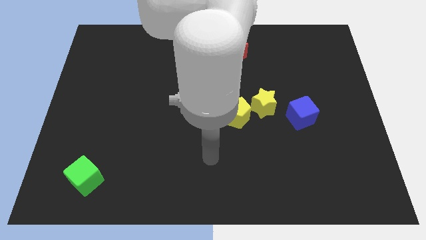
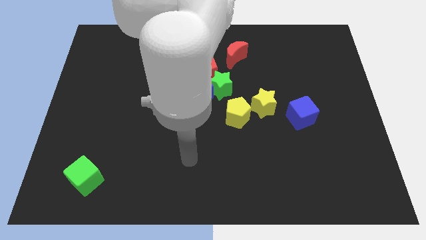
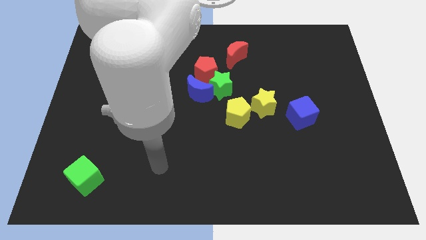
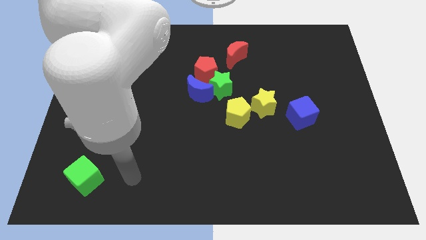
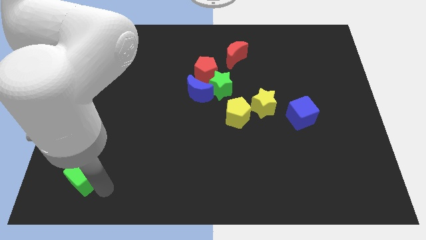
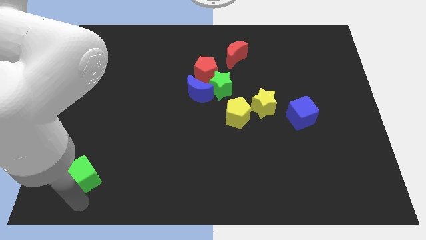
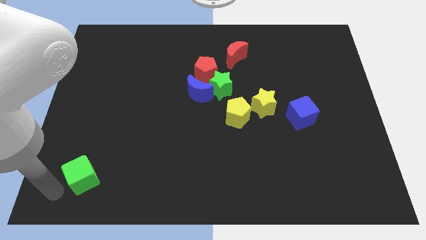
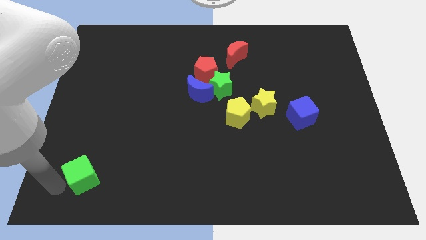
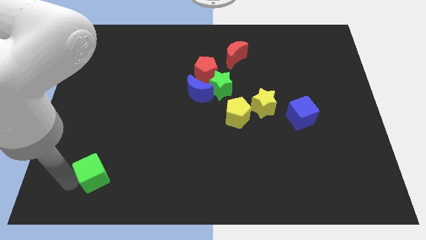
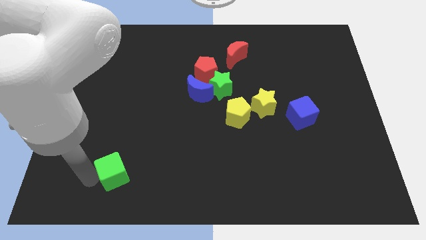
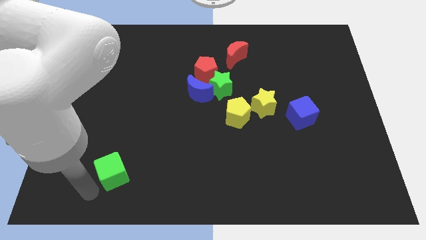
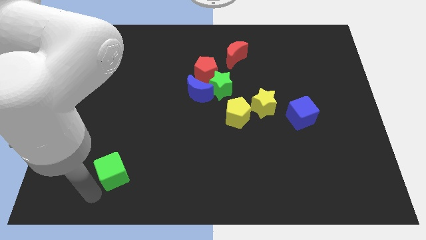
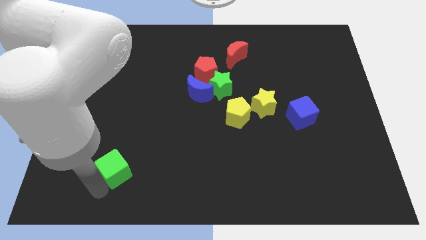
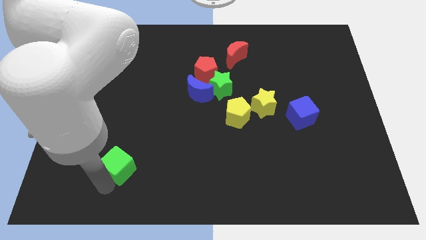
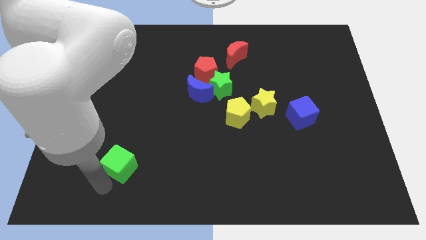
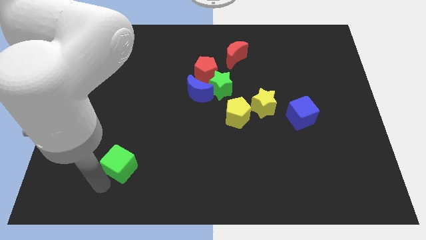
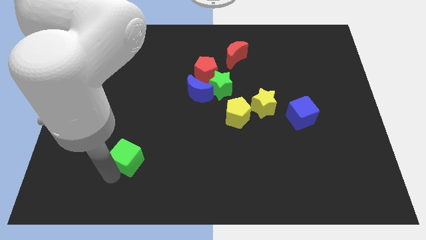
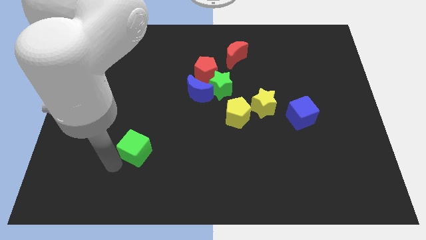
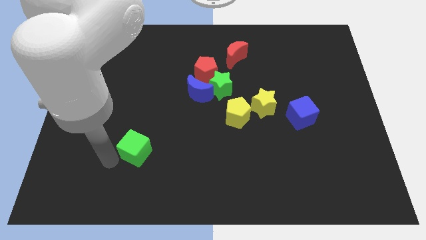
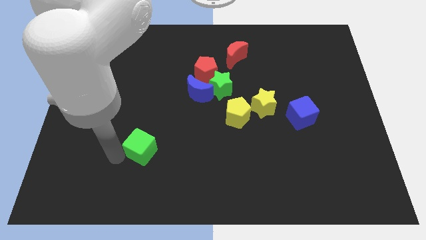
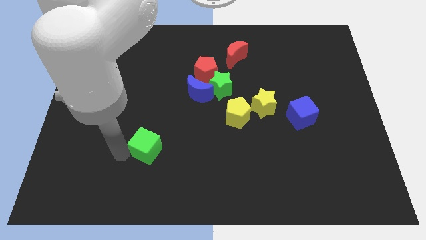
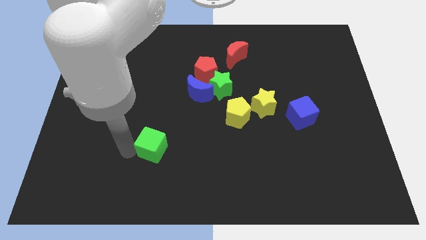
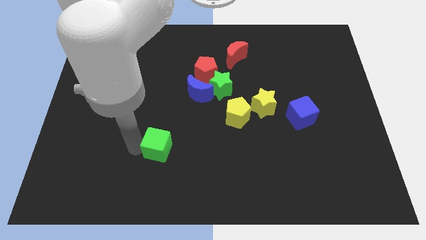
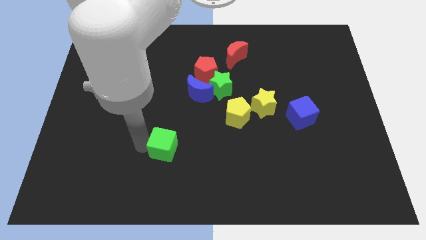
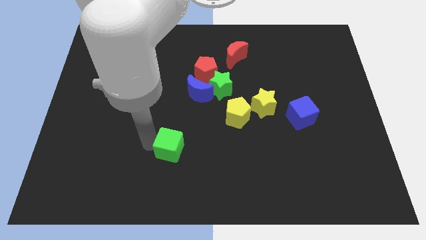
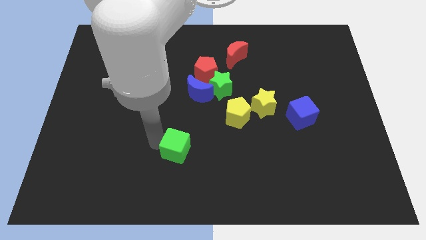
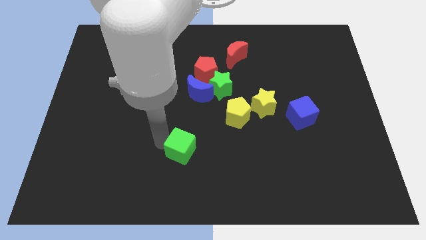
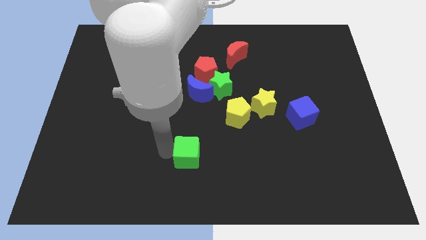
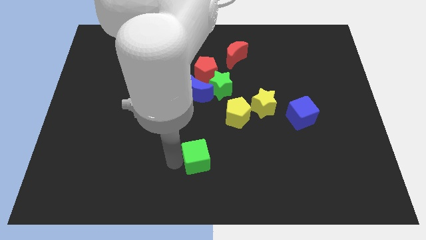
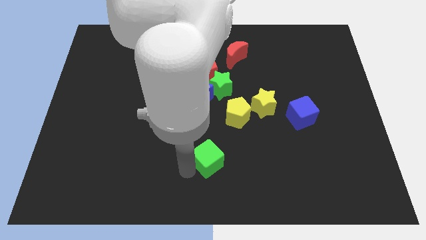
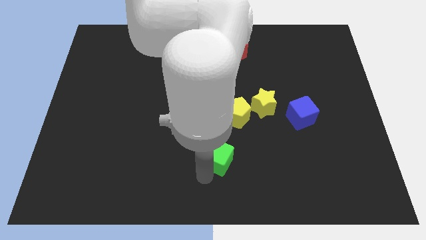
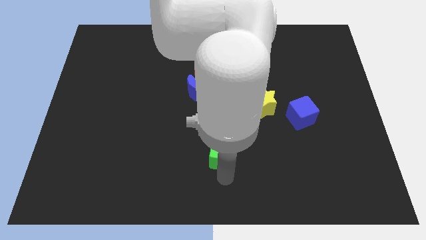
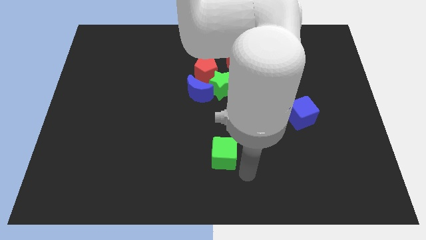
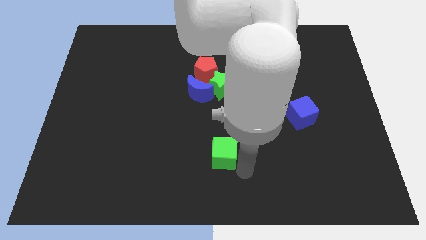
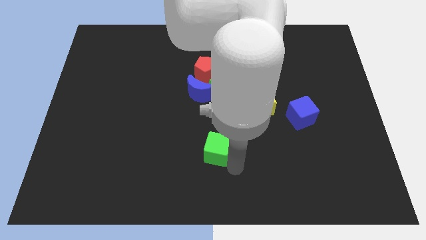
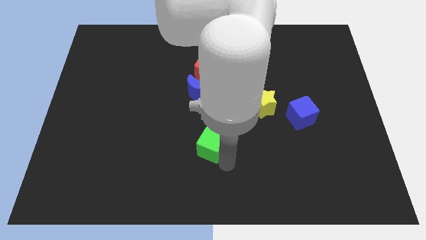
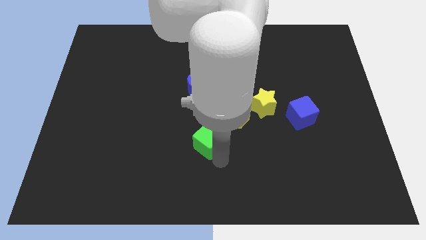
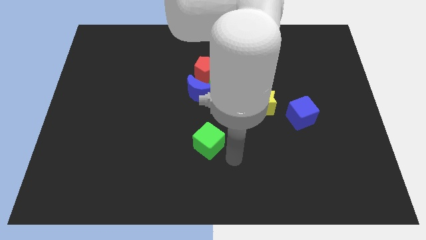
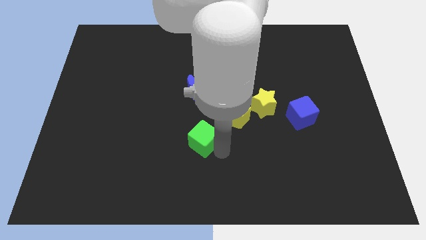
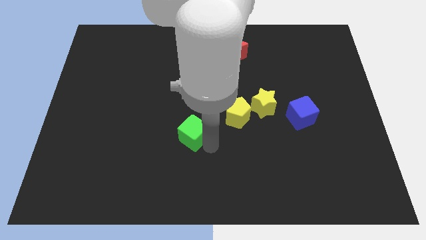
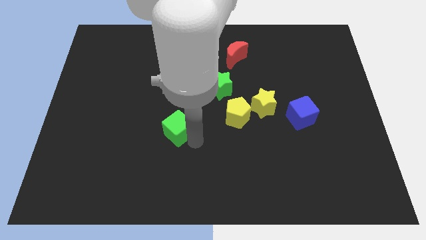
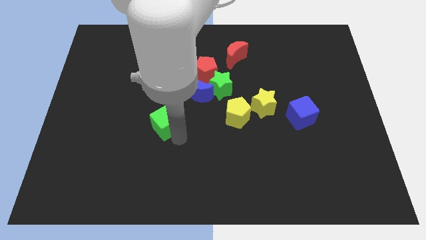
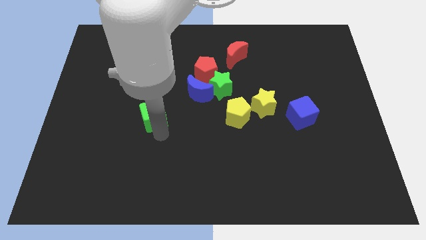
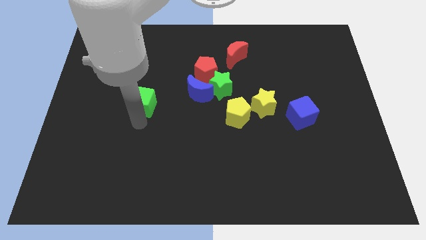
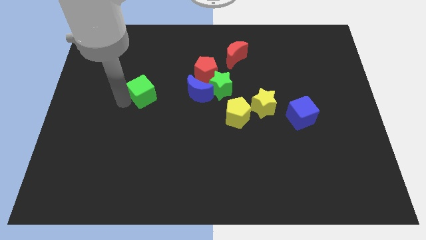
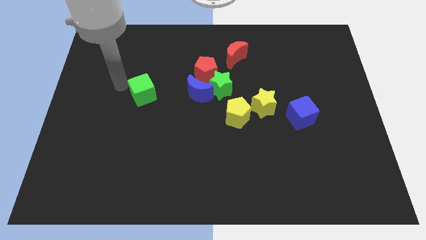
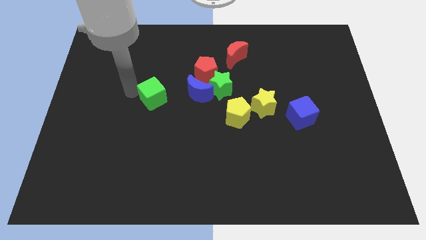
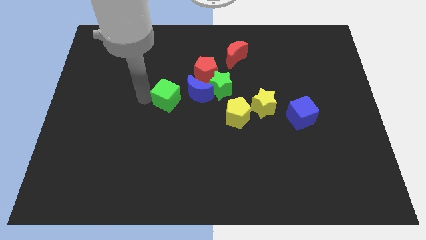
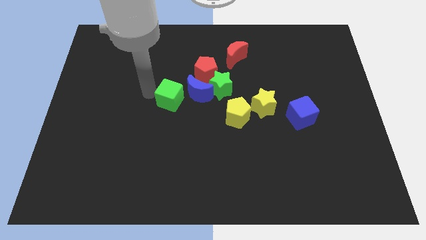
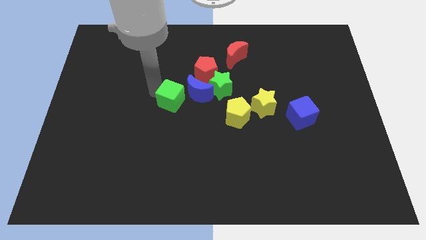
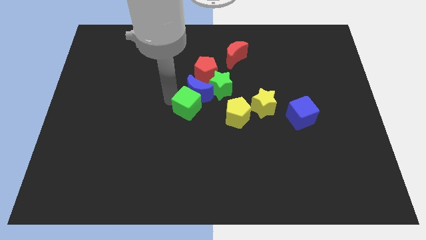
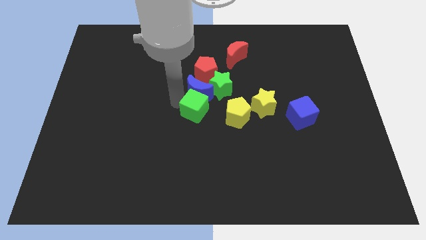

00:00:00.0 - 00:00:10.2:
move the green cube to the bottom right of the blue moon

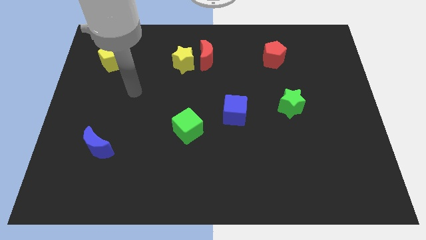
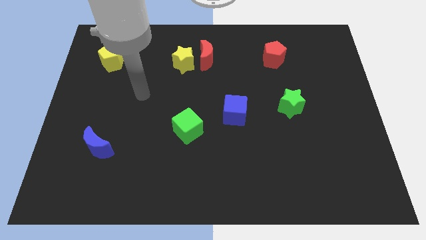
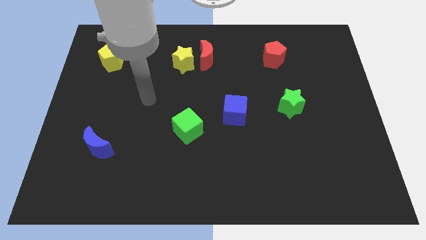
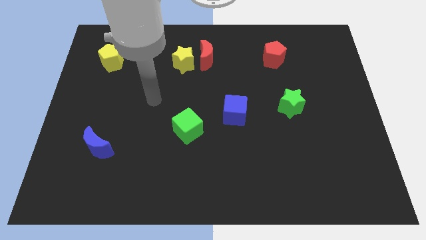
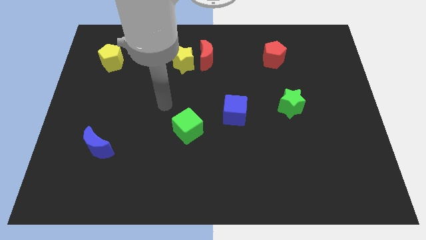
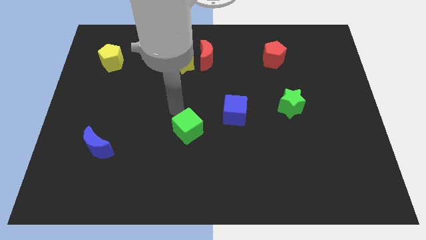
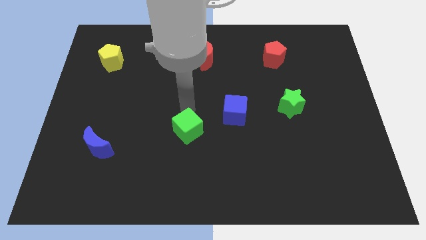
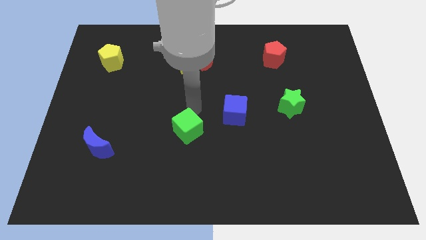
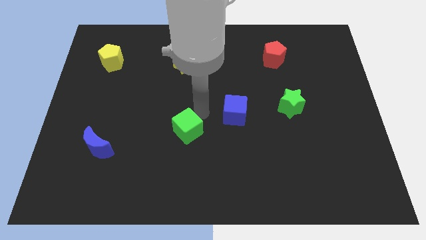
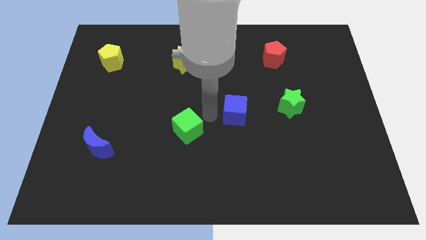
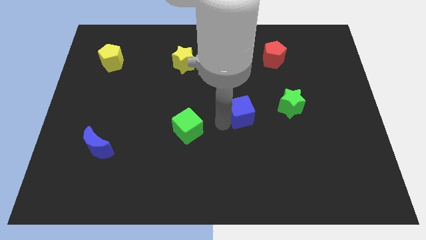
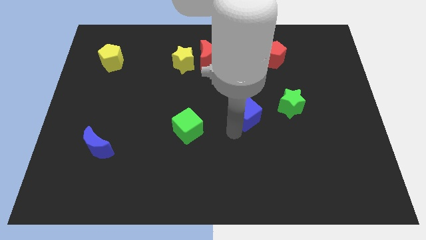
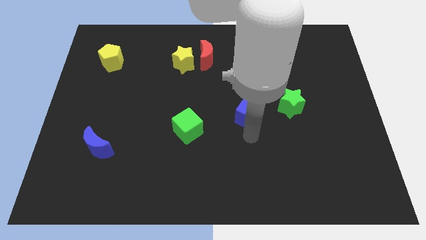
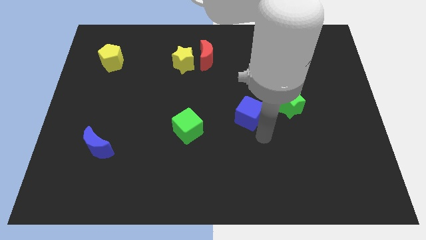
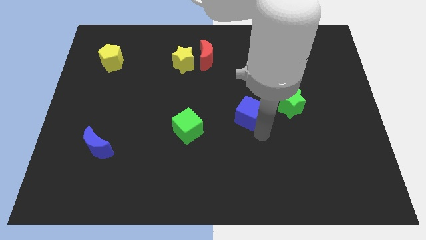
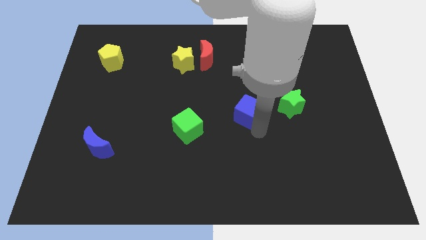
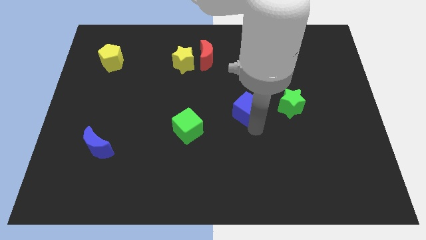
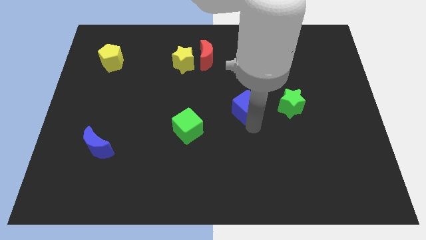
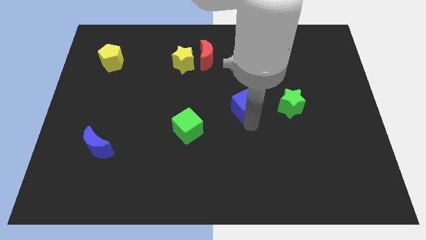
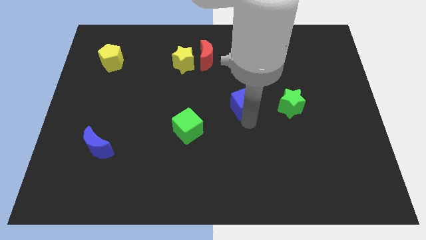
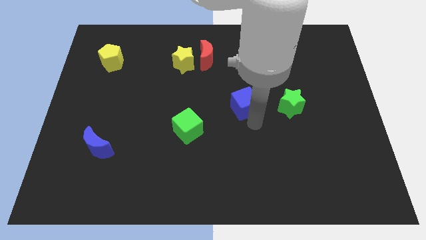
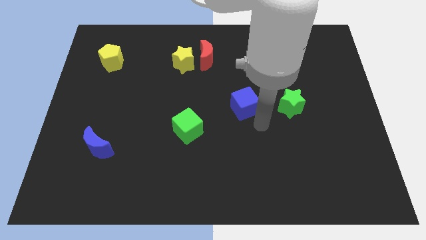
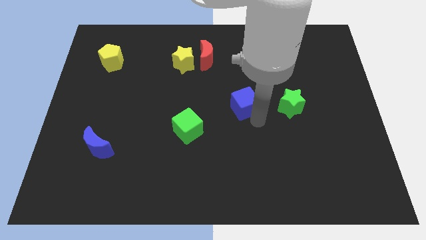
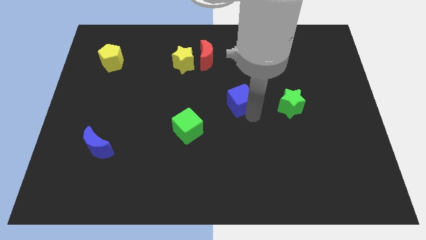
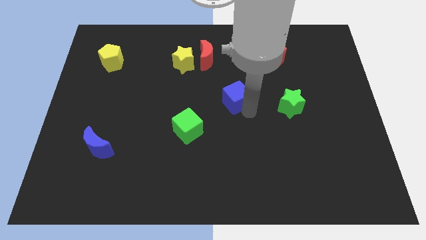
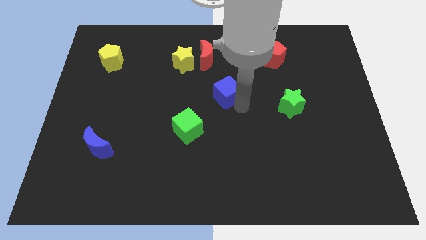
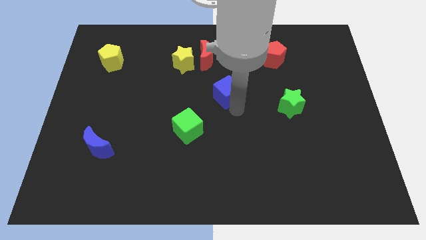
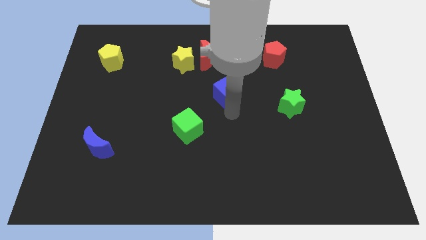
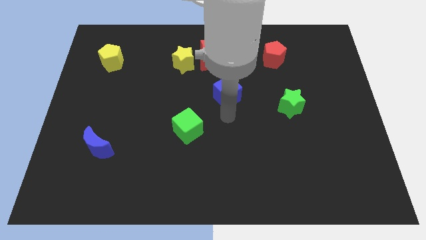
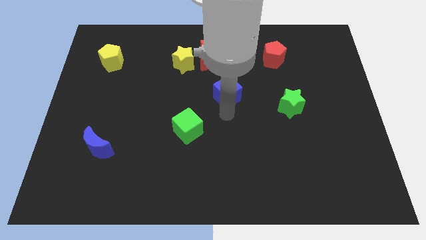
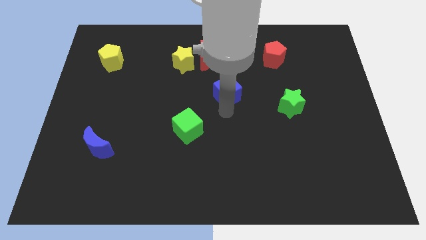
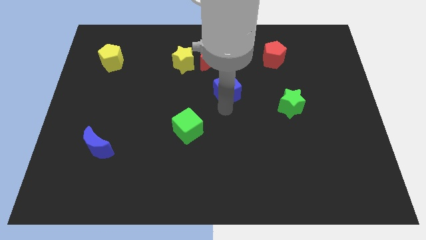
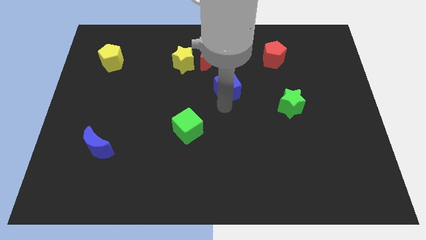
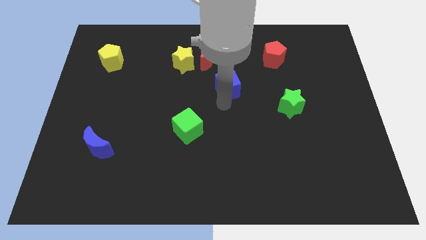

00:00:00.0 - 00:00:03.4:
move the blue cube diagonally down and to the right of the red moon

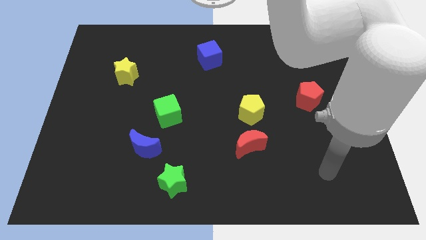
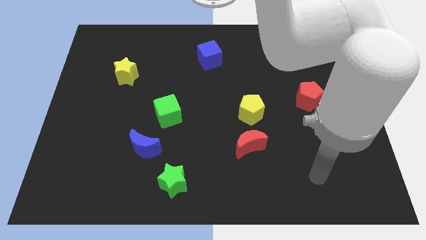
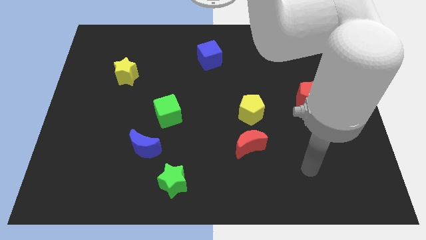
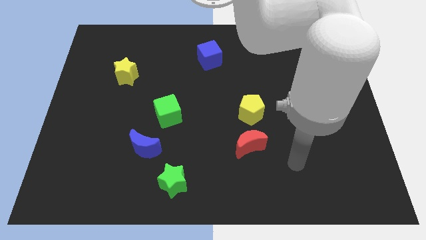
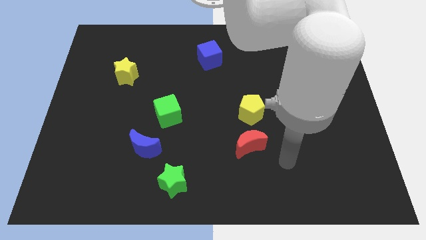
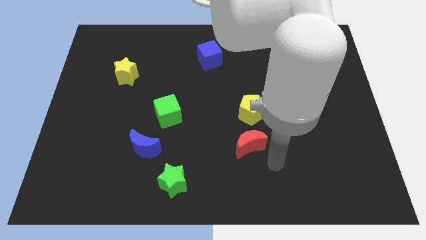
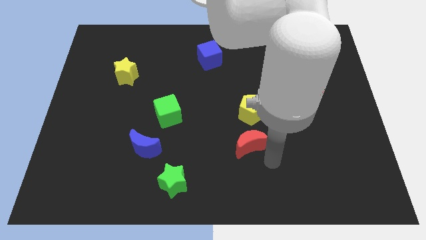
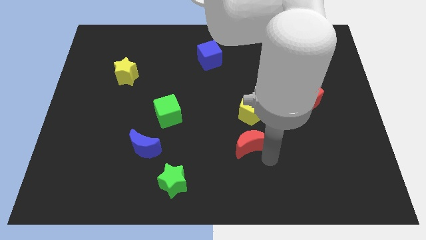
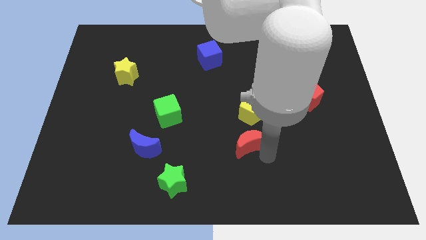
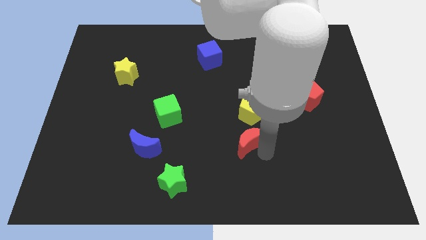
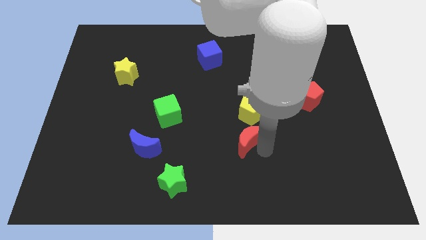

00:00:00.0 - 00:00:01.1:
push the red moon diagonally down and to the left of the yellow pentagon
